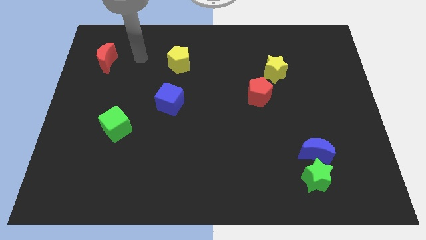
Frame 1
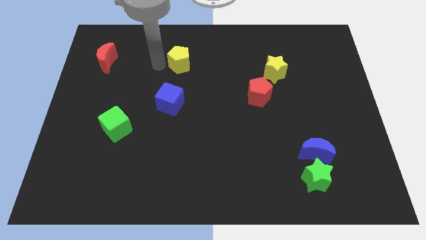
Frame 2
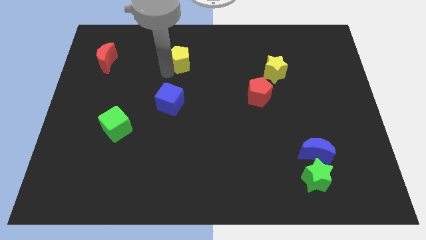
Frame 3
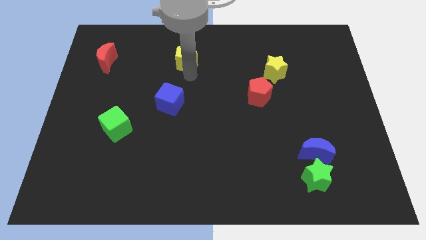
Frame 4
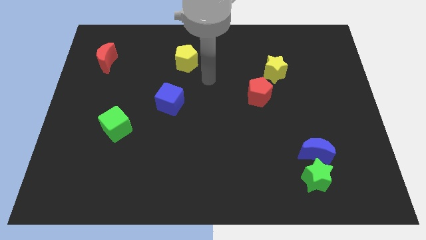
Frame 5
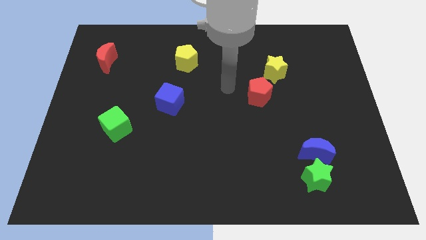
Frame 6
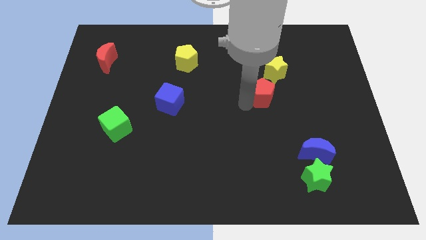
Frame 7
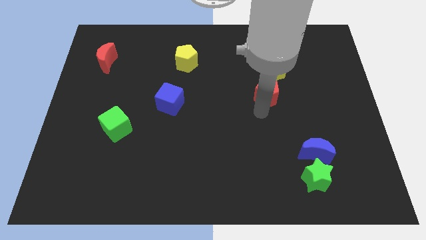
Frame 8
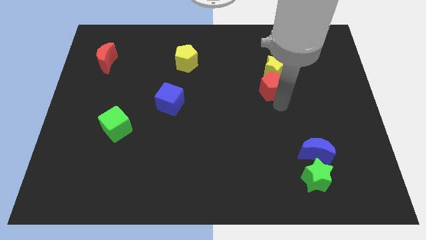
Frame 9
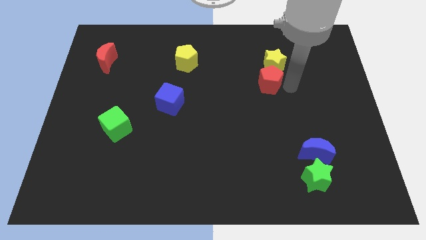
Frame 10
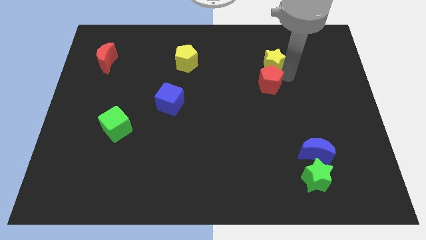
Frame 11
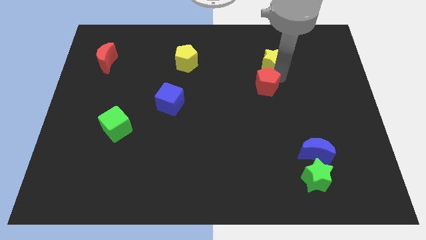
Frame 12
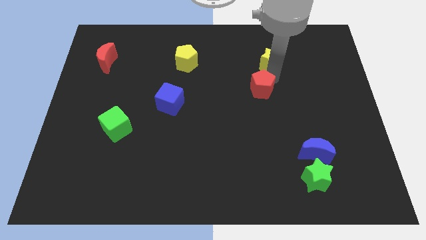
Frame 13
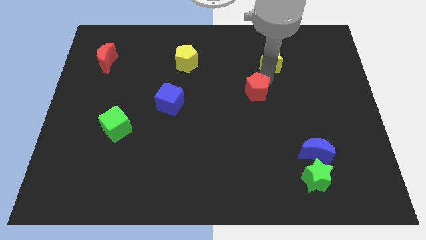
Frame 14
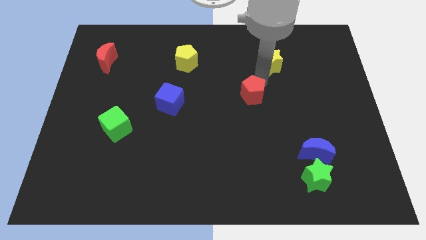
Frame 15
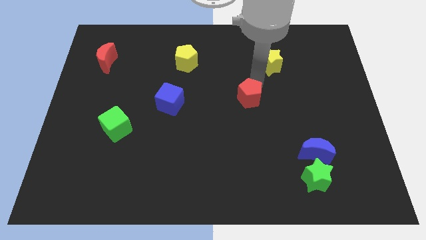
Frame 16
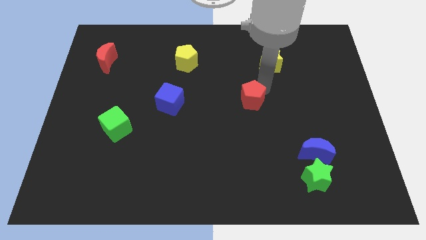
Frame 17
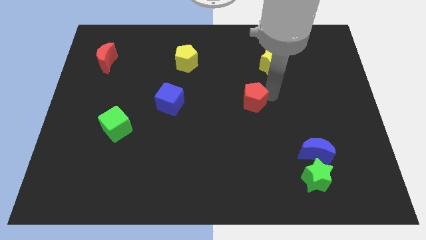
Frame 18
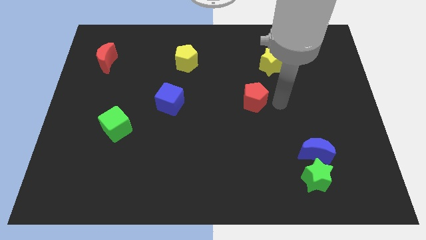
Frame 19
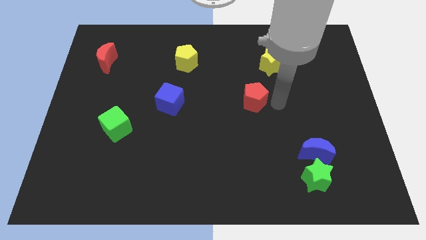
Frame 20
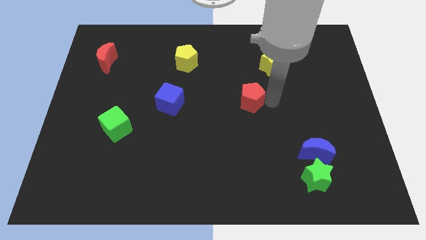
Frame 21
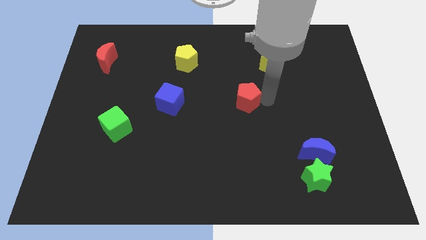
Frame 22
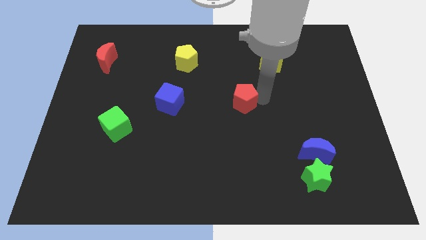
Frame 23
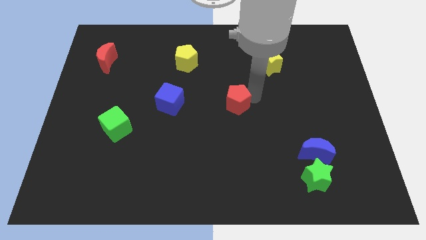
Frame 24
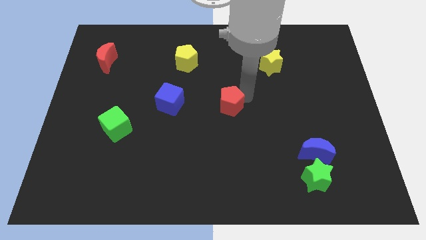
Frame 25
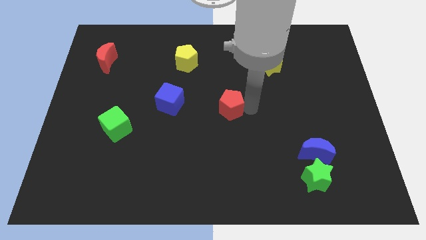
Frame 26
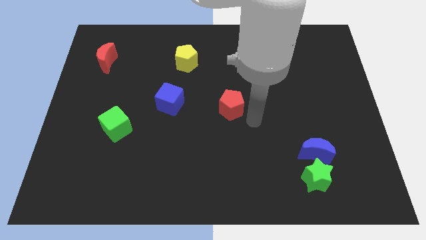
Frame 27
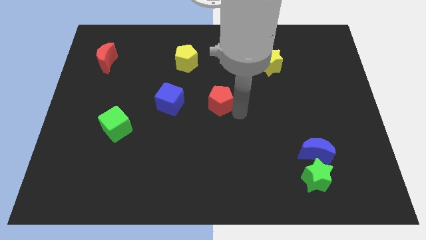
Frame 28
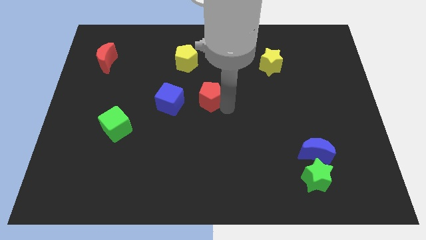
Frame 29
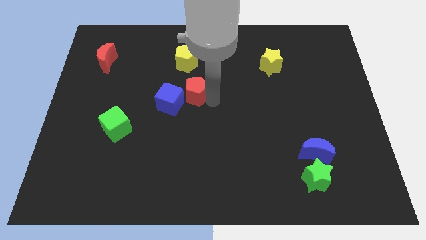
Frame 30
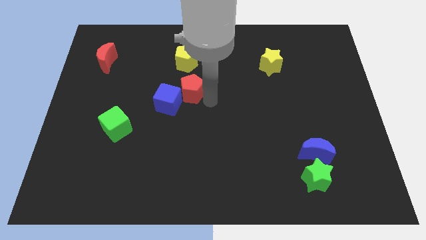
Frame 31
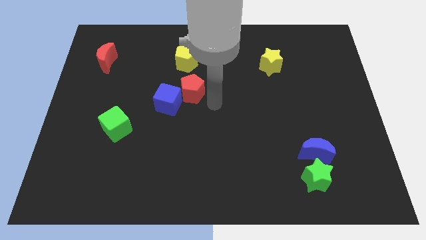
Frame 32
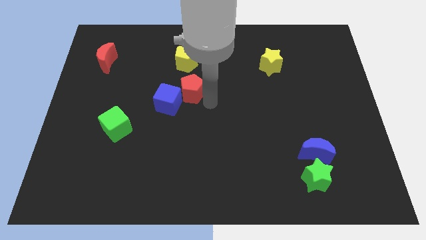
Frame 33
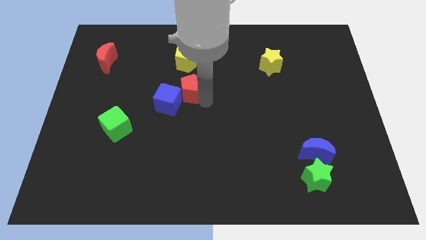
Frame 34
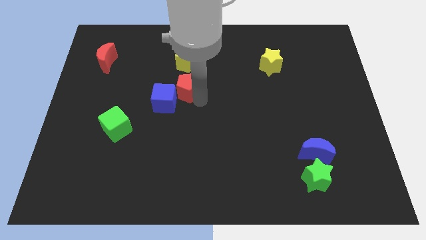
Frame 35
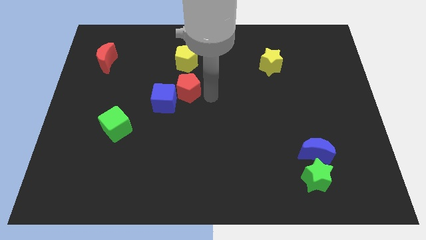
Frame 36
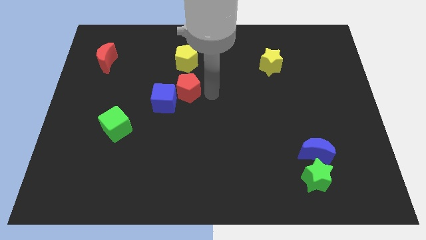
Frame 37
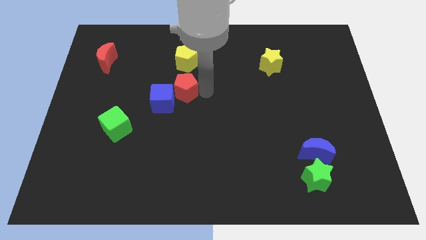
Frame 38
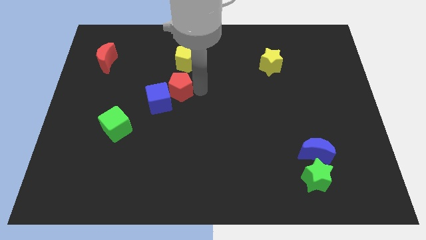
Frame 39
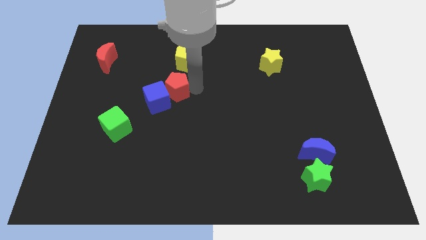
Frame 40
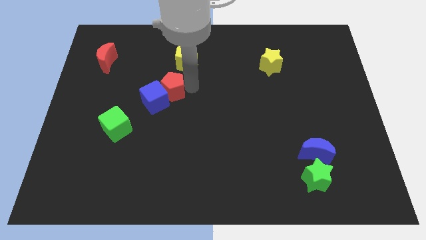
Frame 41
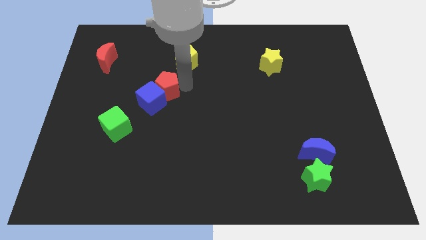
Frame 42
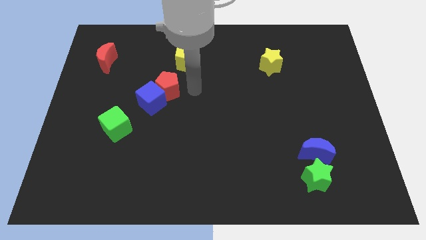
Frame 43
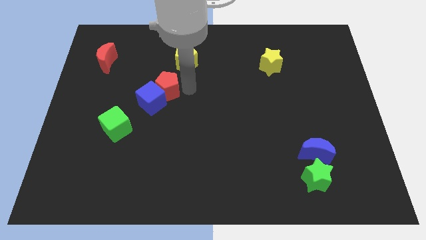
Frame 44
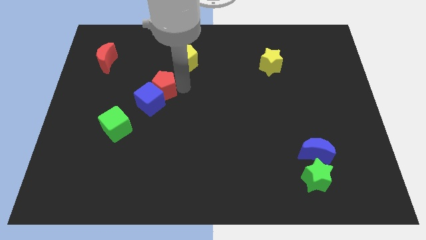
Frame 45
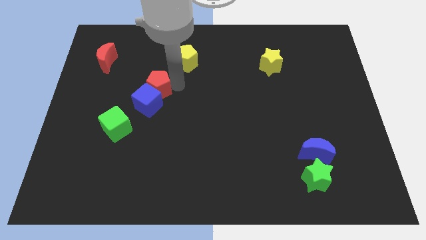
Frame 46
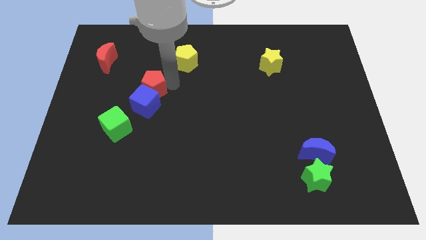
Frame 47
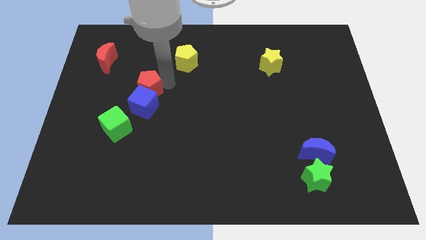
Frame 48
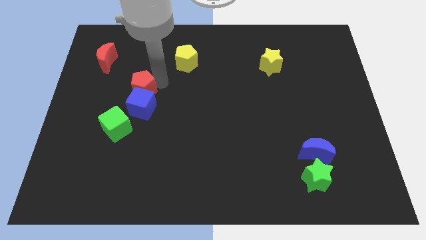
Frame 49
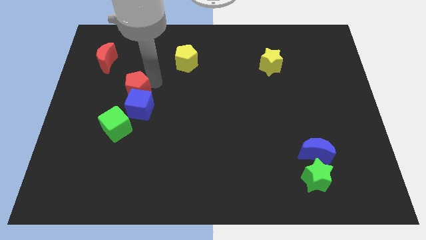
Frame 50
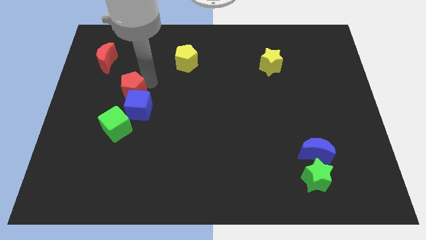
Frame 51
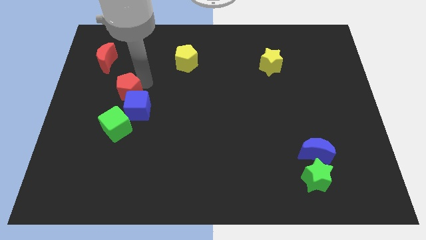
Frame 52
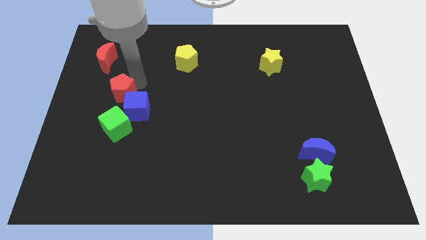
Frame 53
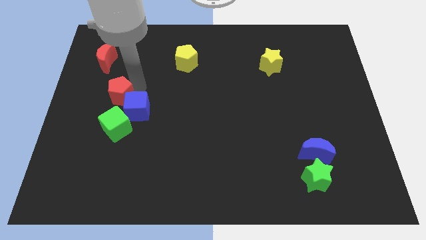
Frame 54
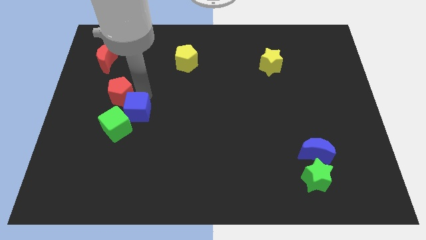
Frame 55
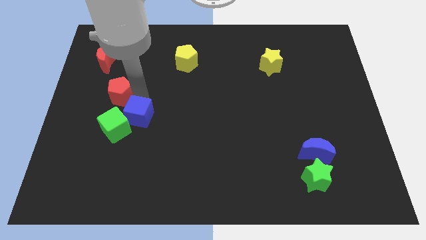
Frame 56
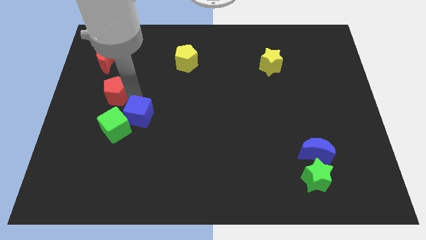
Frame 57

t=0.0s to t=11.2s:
move the red pentagon below the red moon

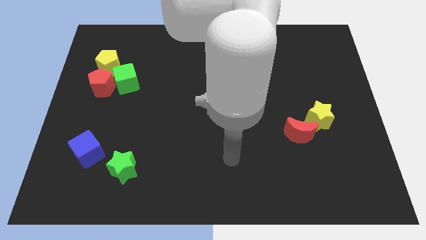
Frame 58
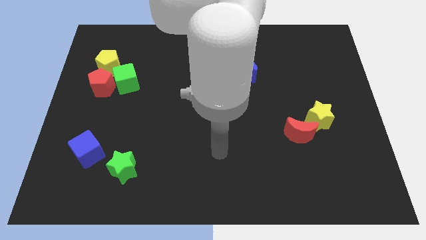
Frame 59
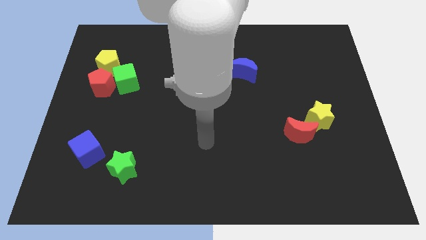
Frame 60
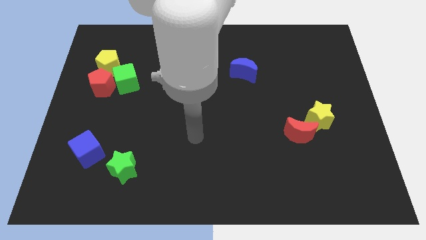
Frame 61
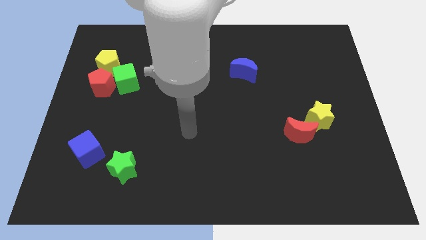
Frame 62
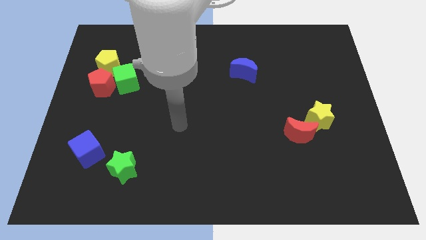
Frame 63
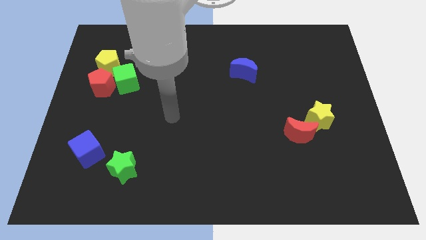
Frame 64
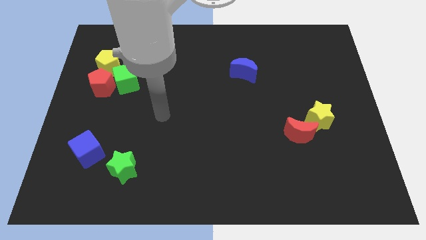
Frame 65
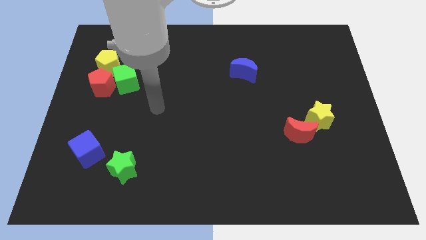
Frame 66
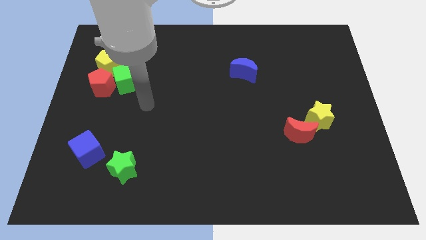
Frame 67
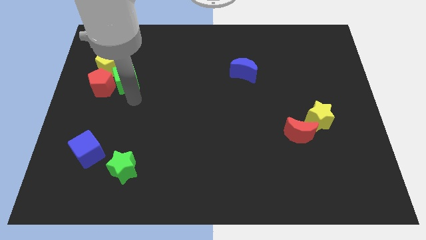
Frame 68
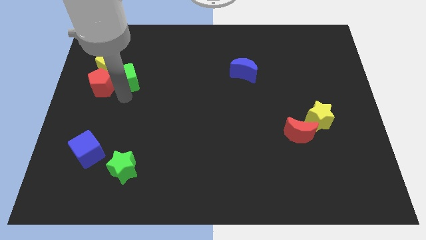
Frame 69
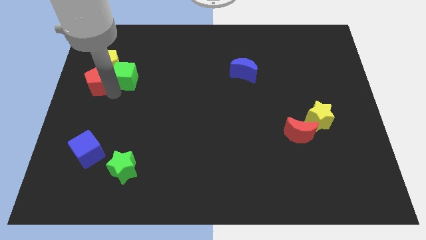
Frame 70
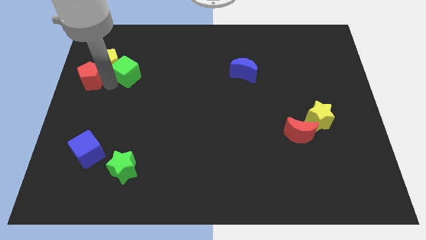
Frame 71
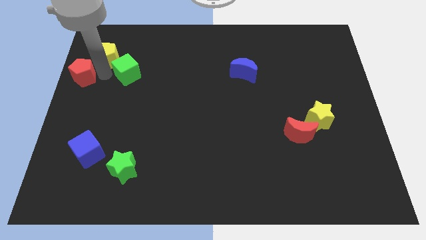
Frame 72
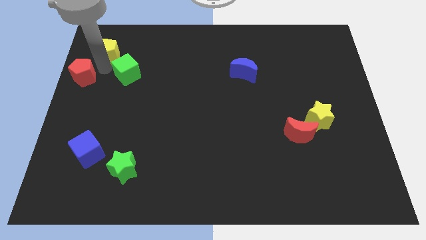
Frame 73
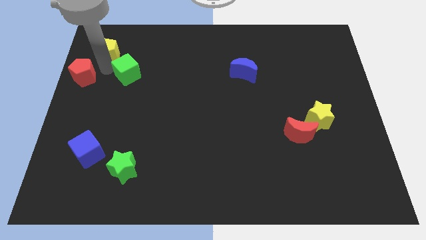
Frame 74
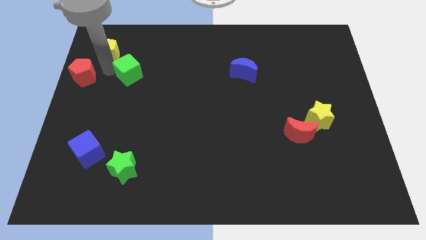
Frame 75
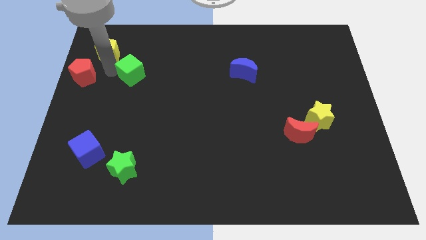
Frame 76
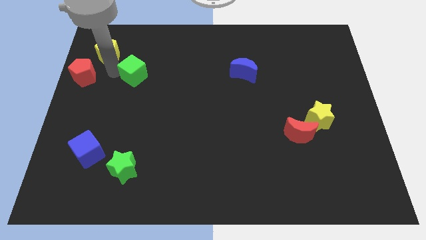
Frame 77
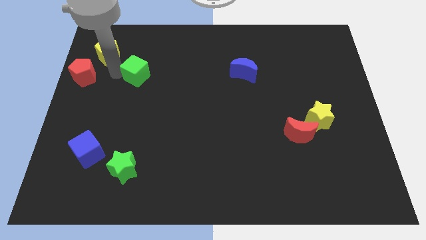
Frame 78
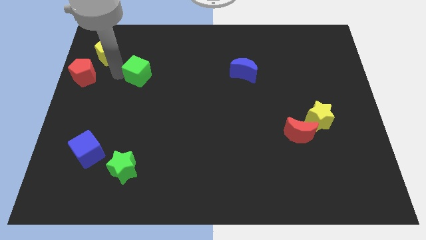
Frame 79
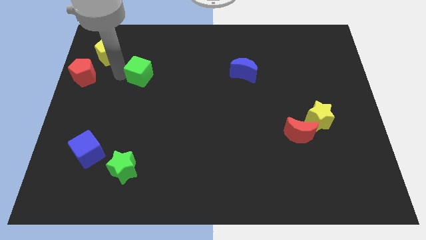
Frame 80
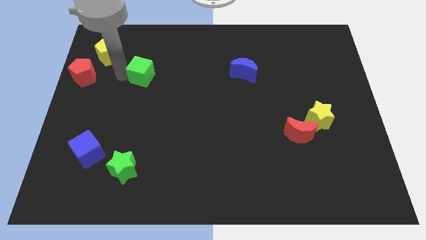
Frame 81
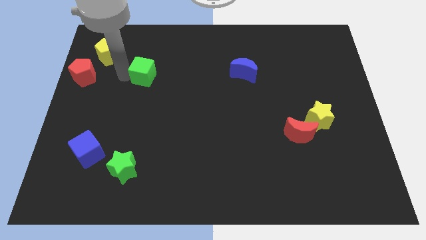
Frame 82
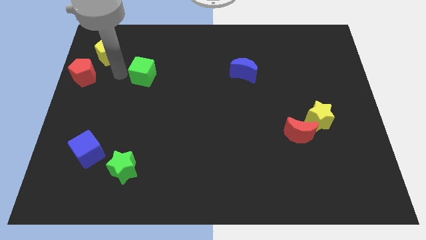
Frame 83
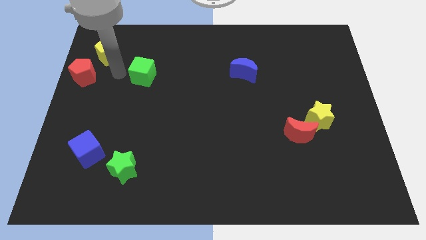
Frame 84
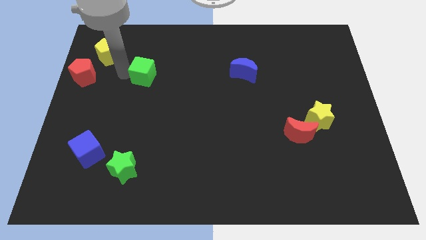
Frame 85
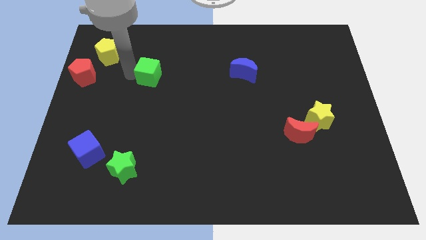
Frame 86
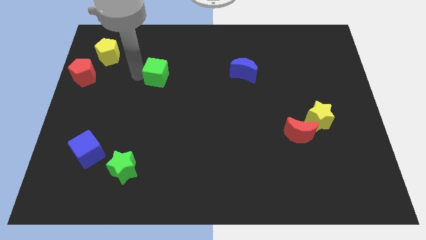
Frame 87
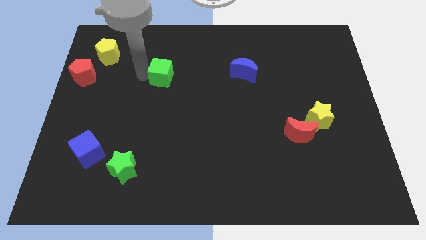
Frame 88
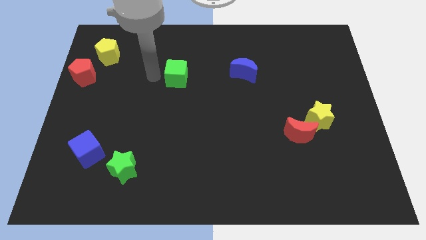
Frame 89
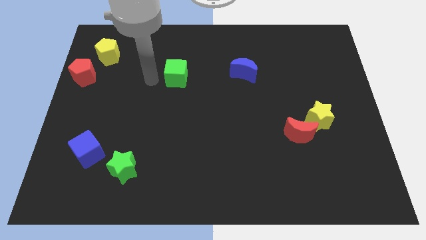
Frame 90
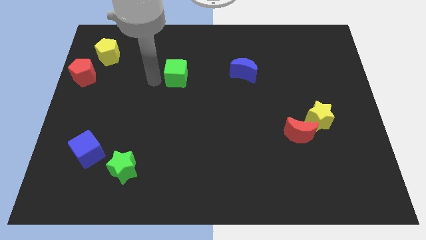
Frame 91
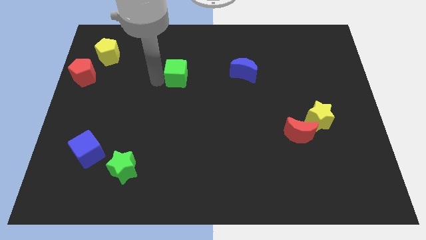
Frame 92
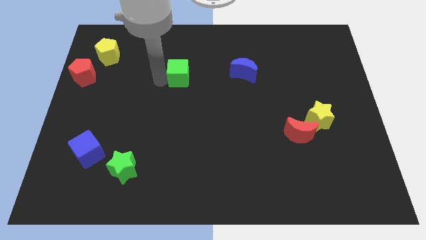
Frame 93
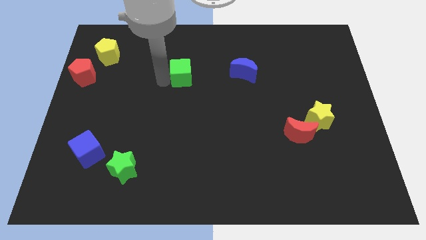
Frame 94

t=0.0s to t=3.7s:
move the green cube to the left of the blue moon
